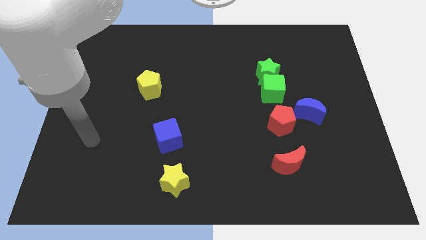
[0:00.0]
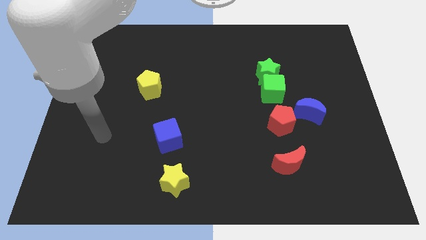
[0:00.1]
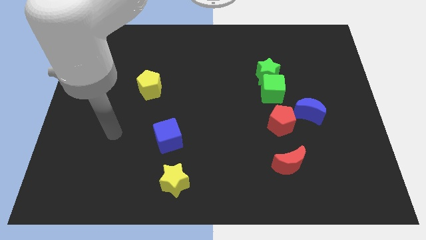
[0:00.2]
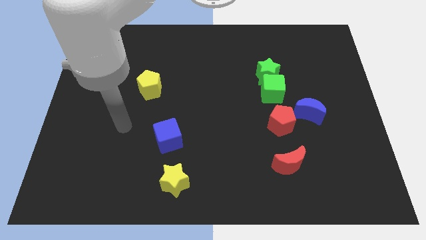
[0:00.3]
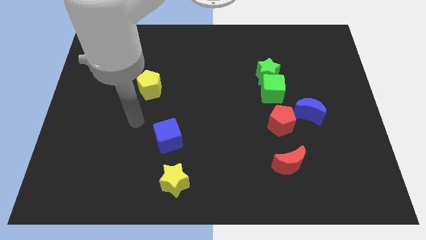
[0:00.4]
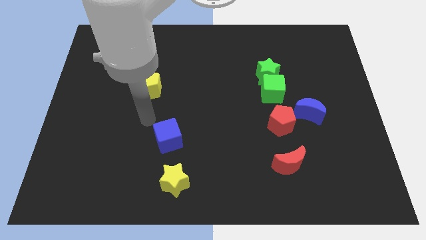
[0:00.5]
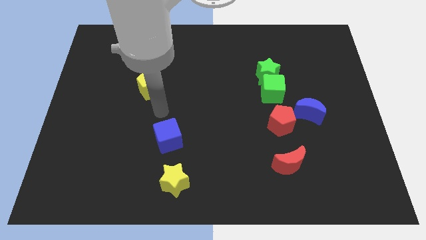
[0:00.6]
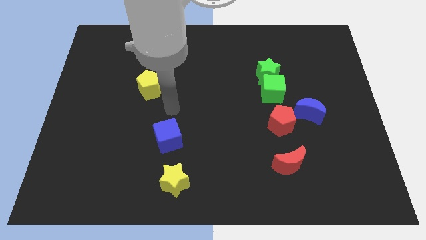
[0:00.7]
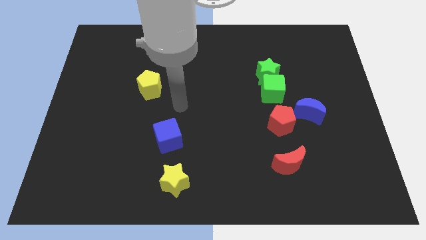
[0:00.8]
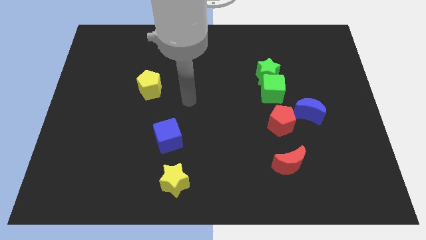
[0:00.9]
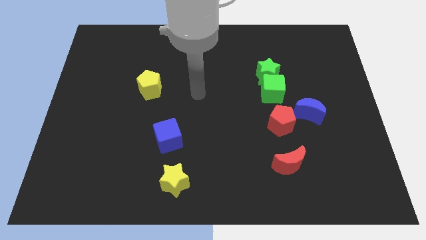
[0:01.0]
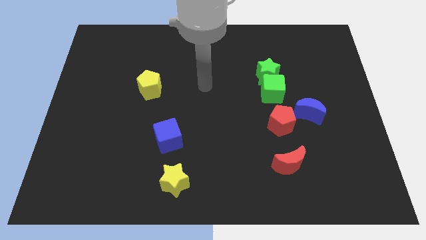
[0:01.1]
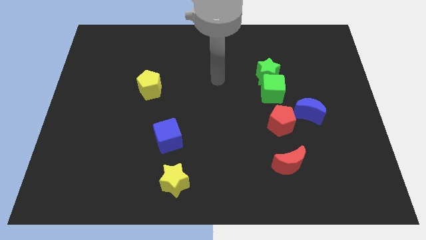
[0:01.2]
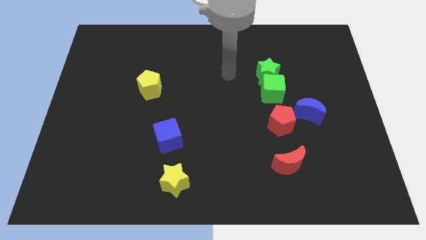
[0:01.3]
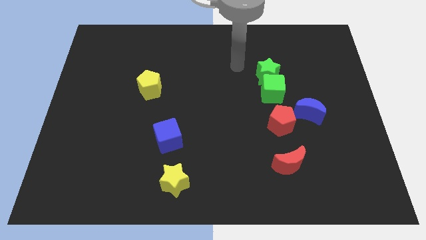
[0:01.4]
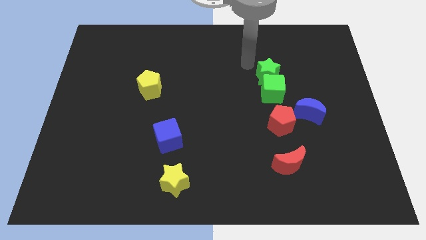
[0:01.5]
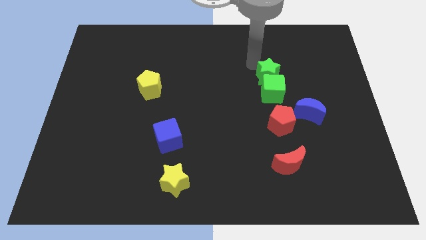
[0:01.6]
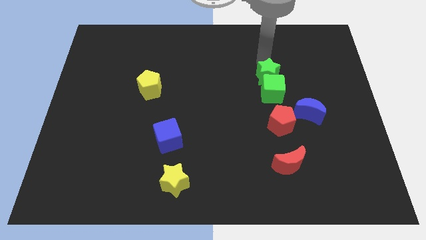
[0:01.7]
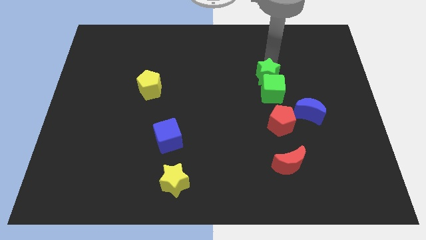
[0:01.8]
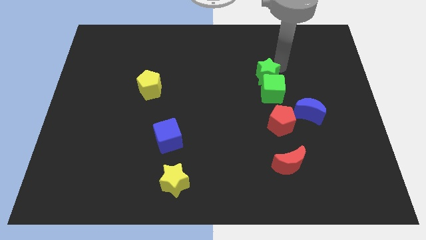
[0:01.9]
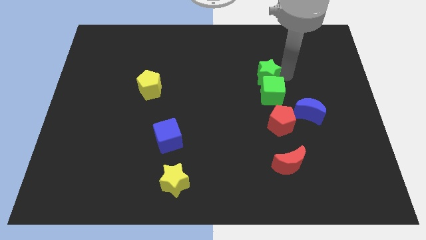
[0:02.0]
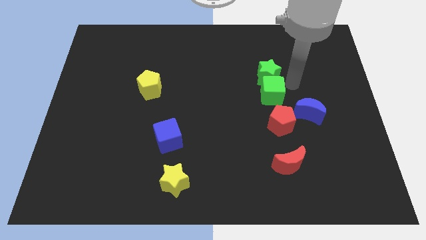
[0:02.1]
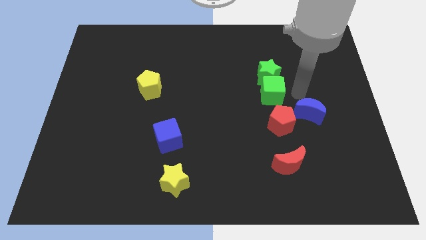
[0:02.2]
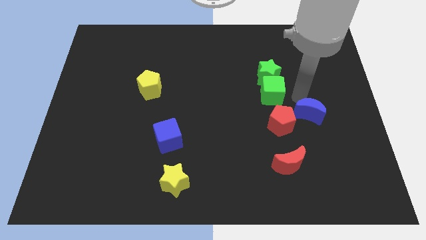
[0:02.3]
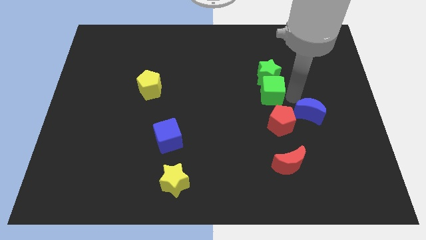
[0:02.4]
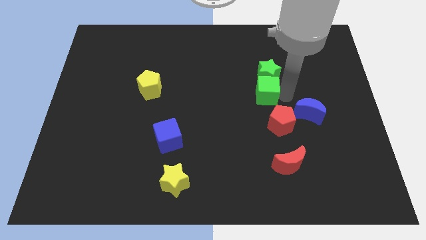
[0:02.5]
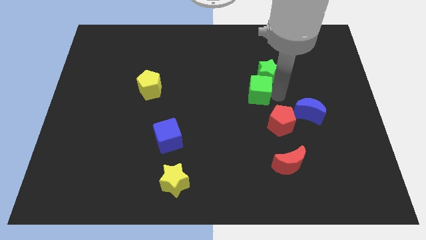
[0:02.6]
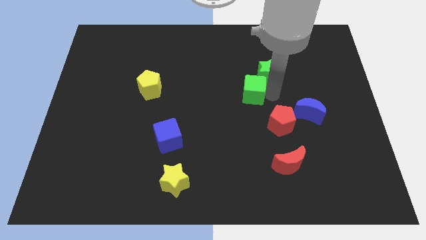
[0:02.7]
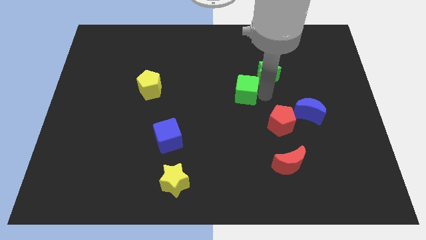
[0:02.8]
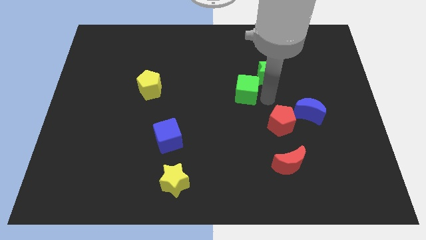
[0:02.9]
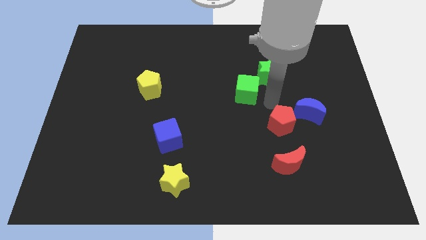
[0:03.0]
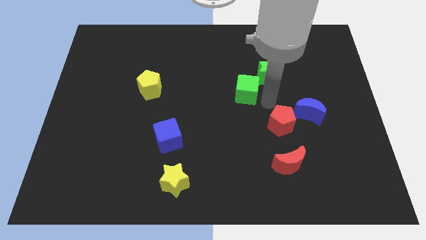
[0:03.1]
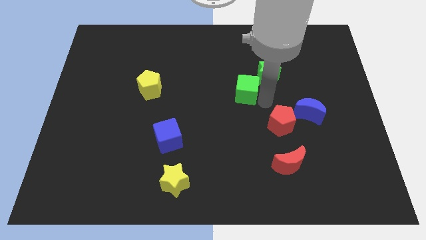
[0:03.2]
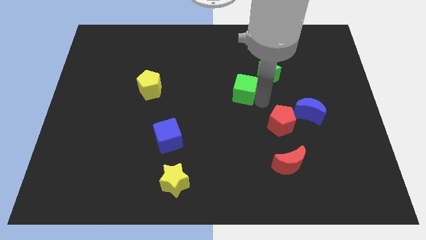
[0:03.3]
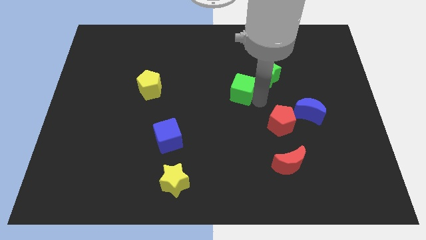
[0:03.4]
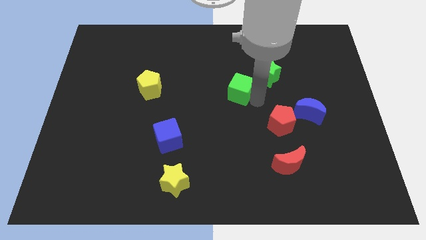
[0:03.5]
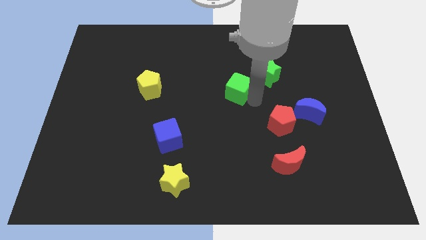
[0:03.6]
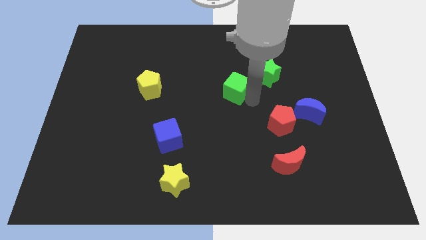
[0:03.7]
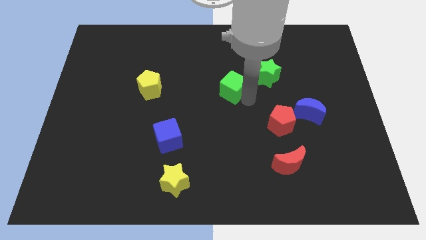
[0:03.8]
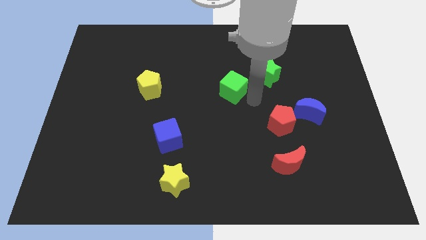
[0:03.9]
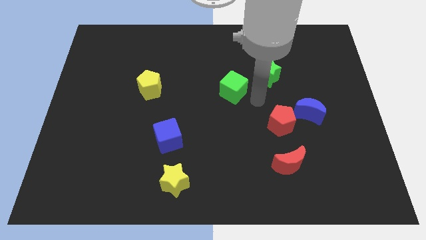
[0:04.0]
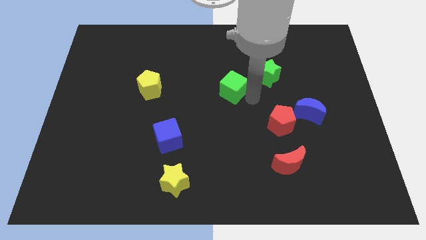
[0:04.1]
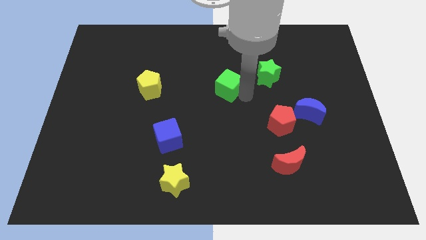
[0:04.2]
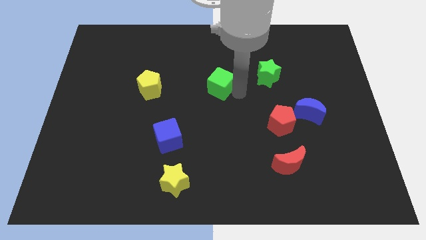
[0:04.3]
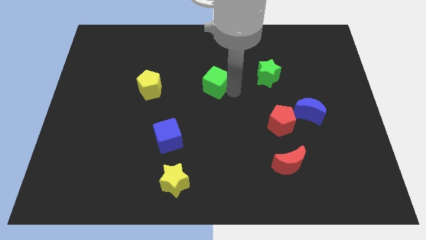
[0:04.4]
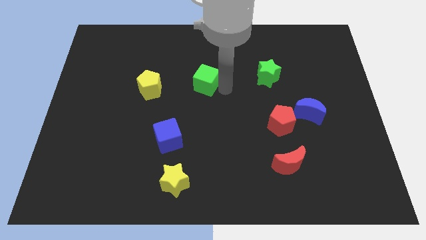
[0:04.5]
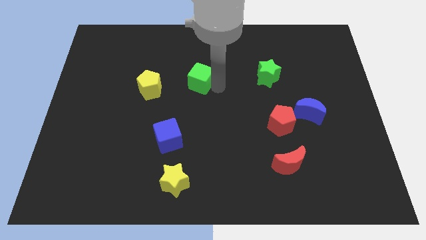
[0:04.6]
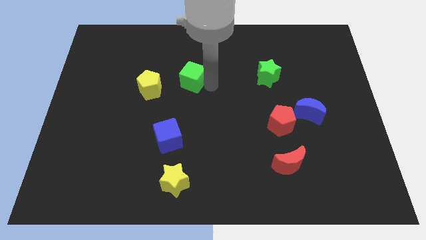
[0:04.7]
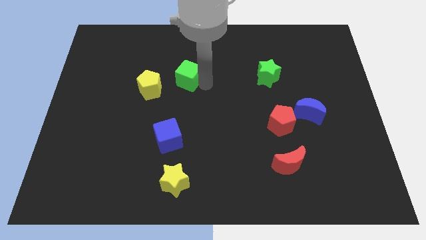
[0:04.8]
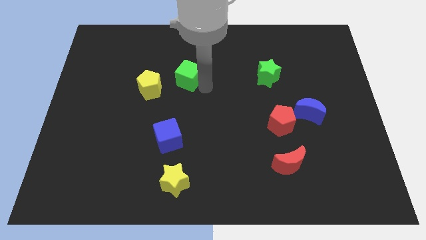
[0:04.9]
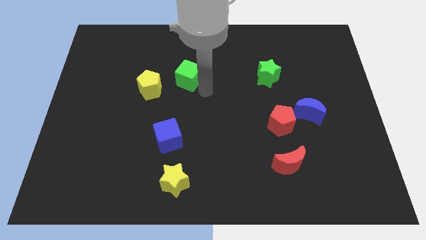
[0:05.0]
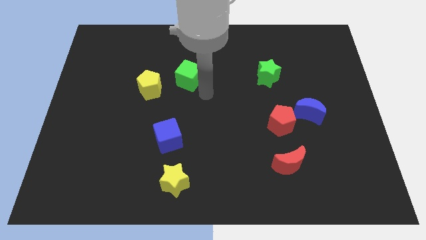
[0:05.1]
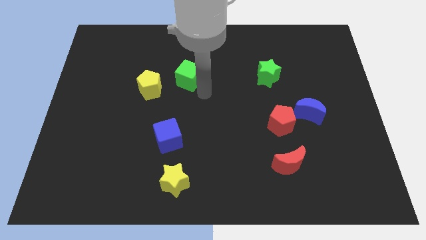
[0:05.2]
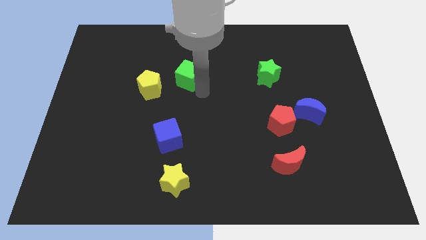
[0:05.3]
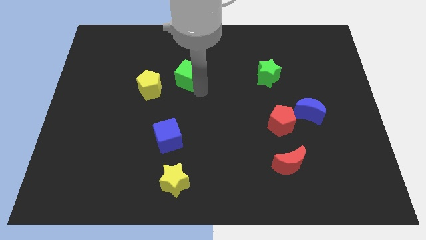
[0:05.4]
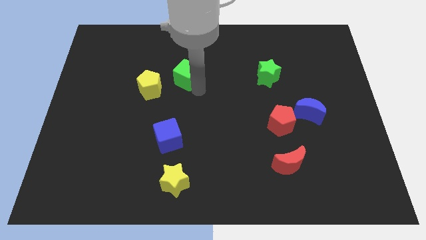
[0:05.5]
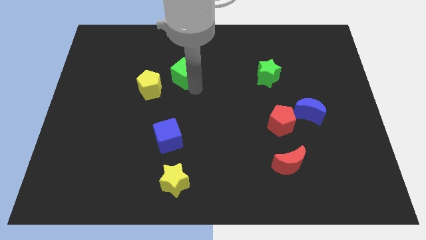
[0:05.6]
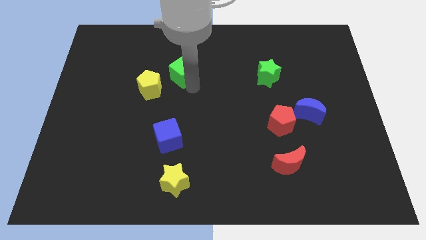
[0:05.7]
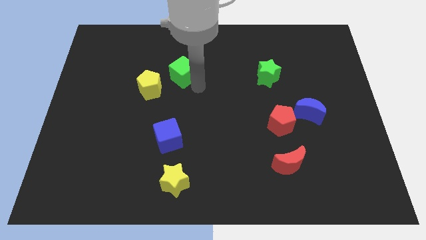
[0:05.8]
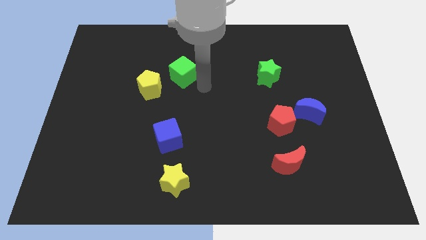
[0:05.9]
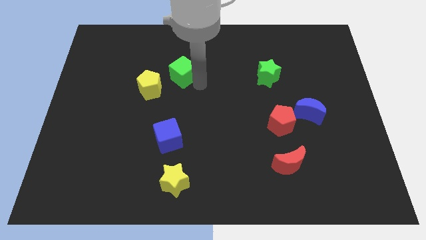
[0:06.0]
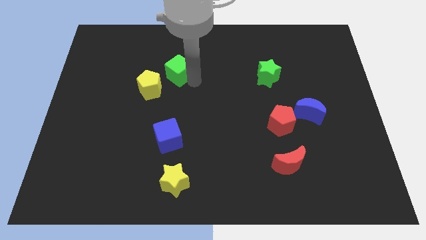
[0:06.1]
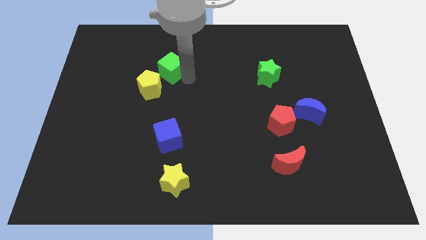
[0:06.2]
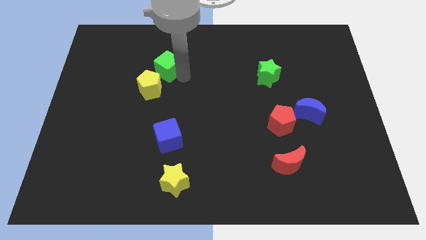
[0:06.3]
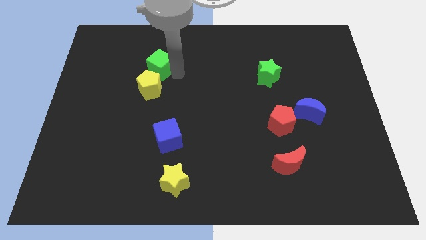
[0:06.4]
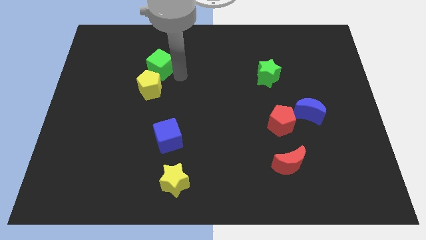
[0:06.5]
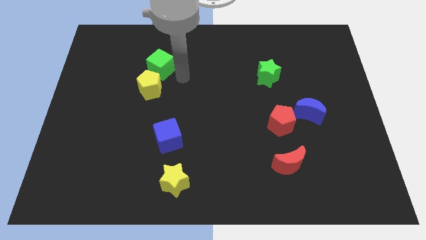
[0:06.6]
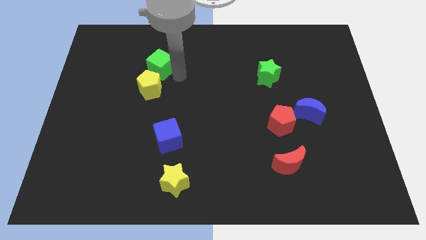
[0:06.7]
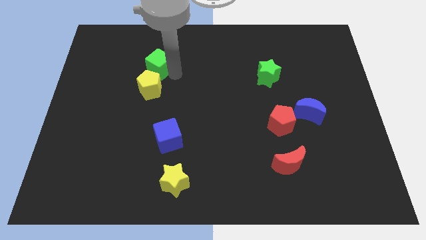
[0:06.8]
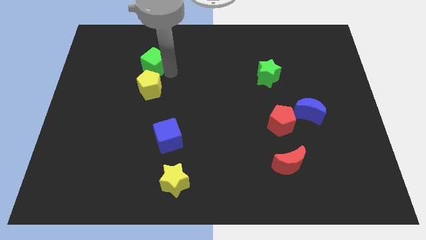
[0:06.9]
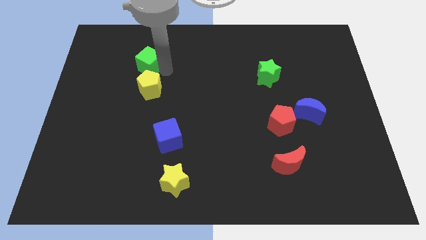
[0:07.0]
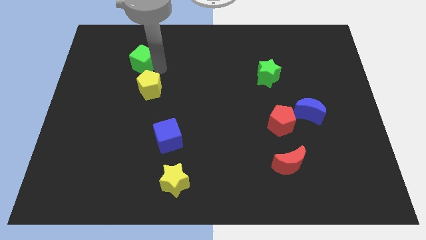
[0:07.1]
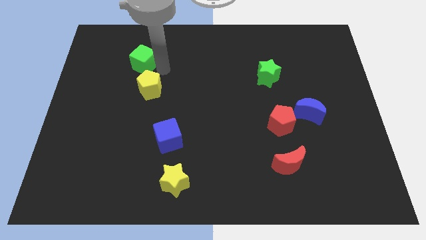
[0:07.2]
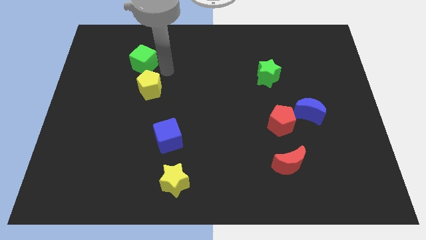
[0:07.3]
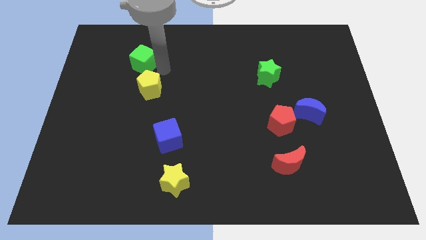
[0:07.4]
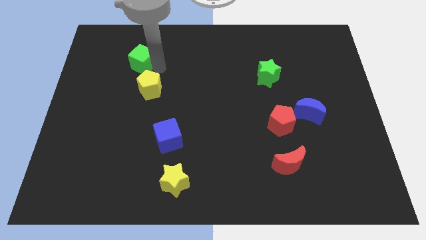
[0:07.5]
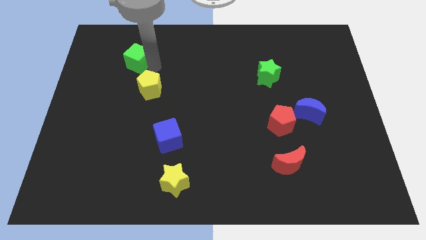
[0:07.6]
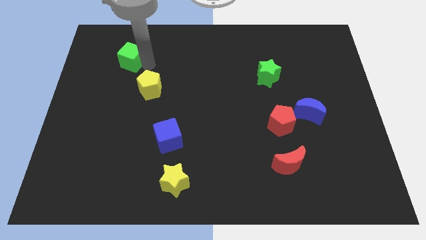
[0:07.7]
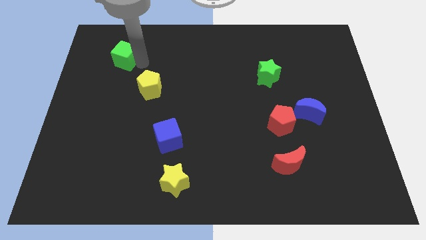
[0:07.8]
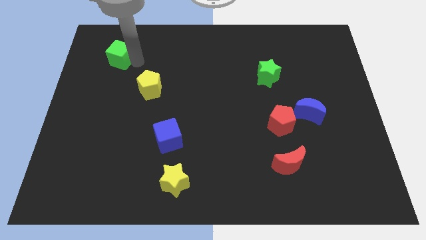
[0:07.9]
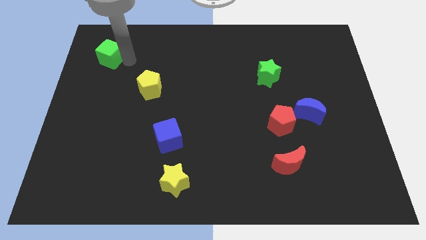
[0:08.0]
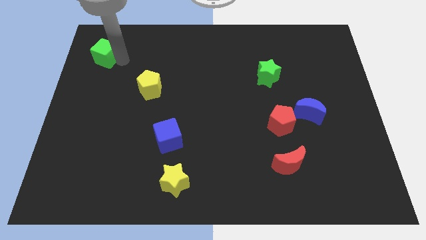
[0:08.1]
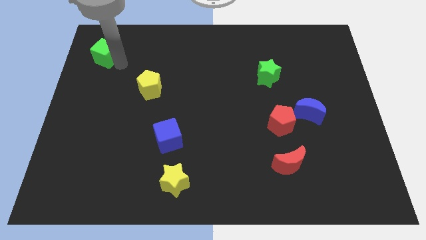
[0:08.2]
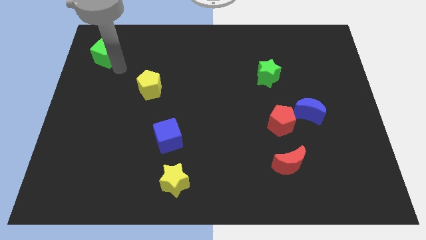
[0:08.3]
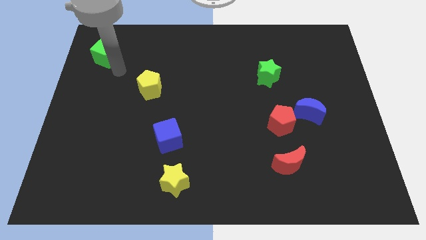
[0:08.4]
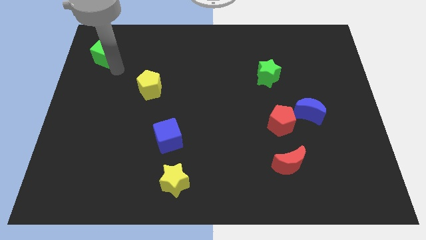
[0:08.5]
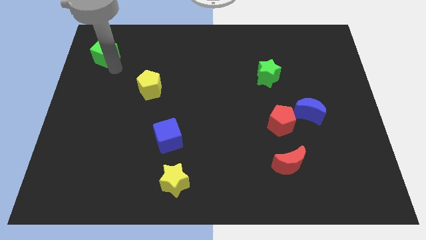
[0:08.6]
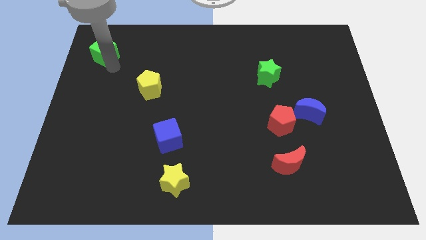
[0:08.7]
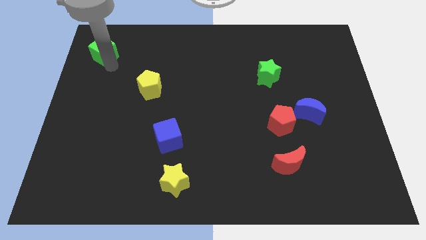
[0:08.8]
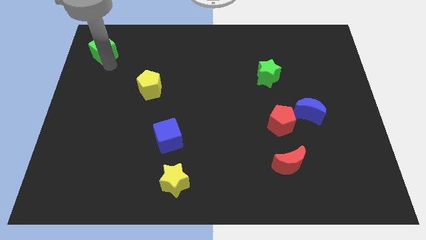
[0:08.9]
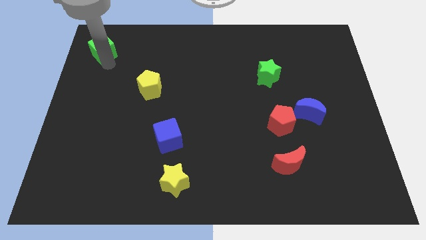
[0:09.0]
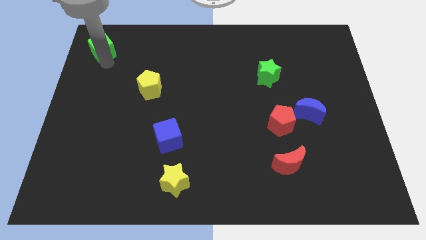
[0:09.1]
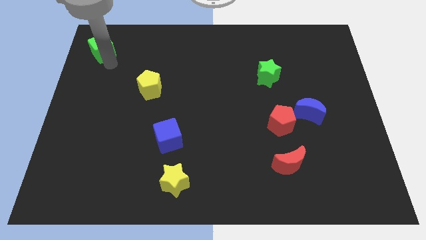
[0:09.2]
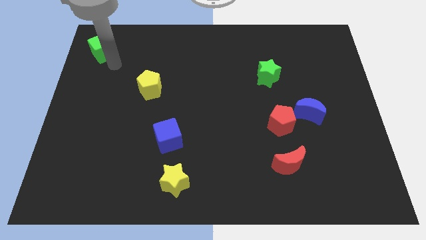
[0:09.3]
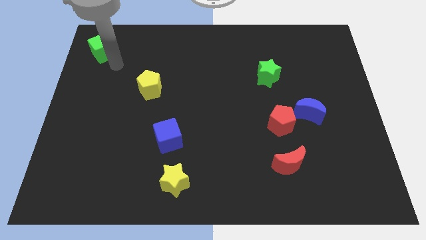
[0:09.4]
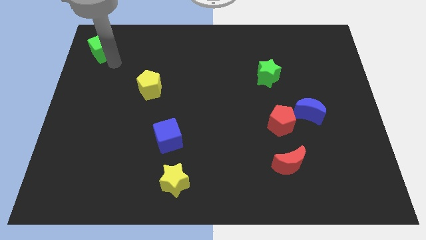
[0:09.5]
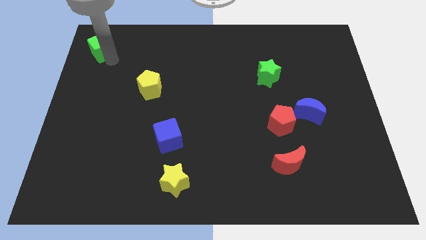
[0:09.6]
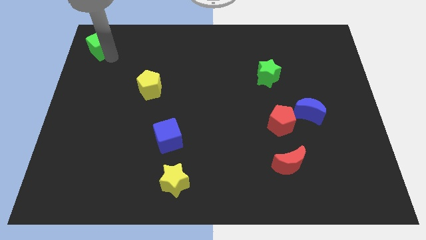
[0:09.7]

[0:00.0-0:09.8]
slide the green cube to the top left
